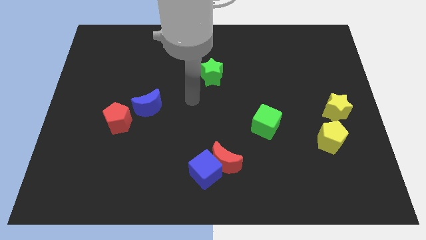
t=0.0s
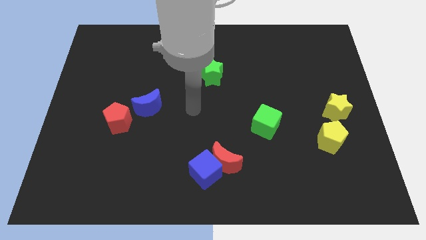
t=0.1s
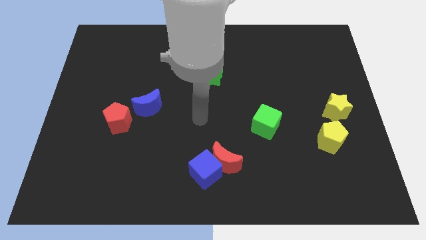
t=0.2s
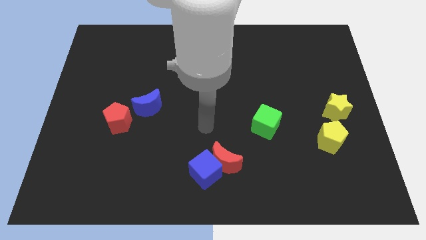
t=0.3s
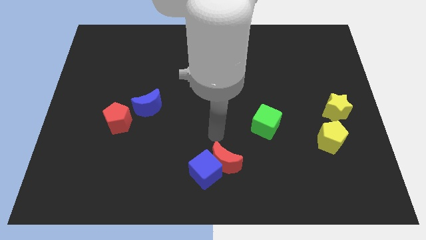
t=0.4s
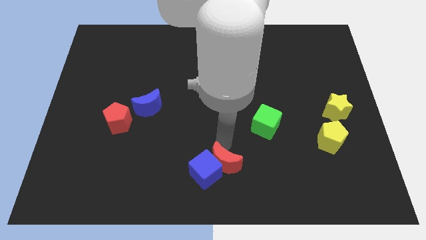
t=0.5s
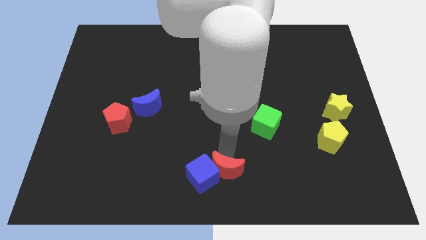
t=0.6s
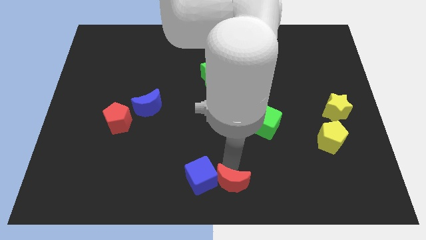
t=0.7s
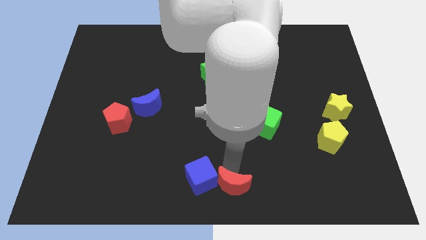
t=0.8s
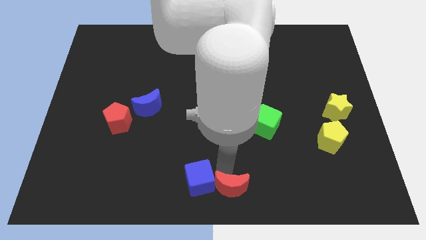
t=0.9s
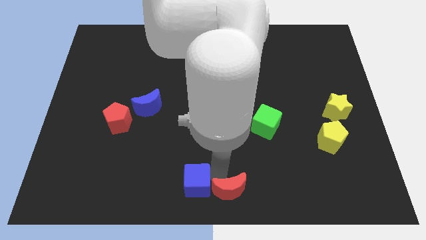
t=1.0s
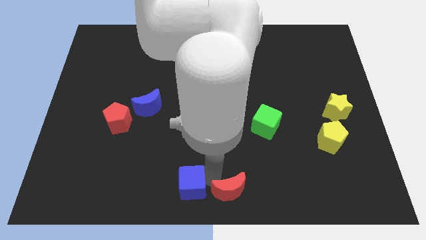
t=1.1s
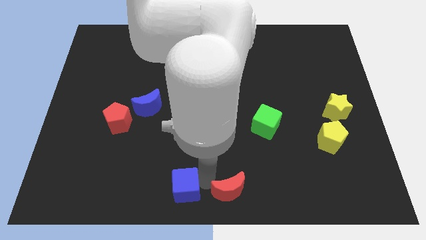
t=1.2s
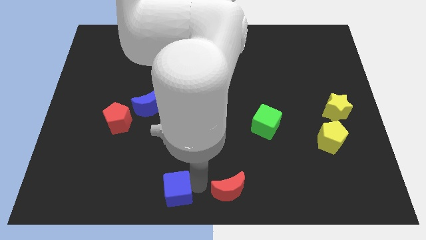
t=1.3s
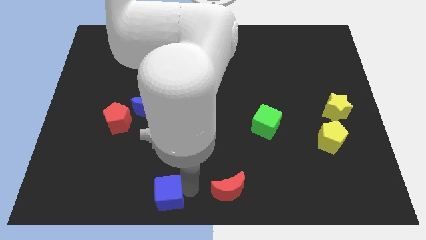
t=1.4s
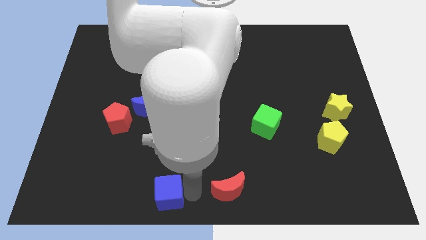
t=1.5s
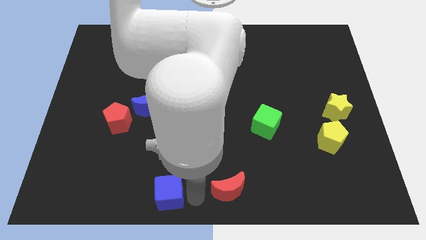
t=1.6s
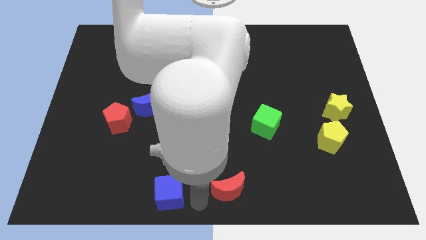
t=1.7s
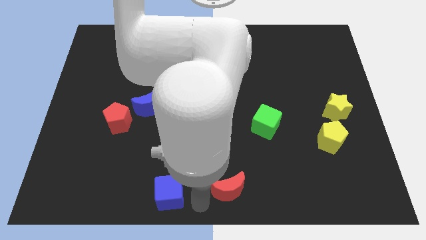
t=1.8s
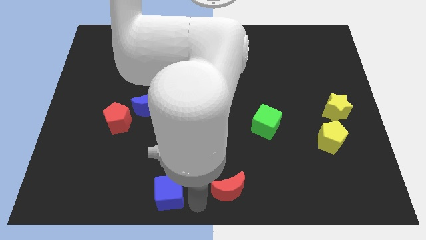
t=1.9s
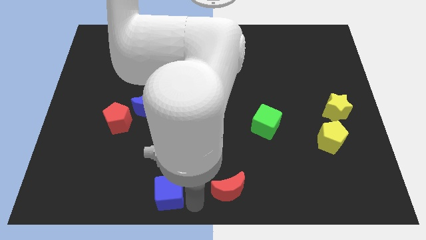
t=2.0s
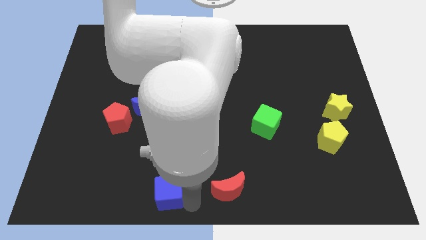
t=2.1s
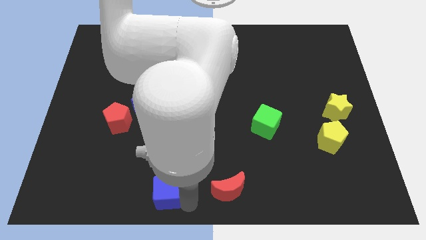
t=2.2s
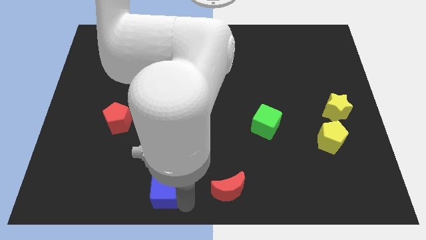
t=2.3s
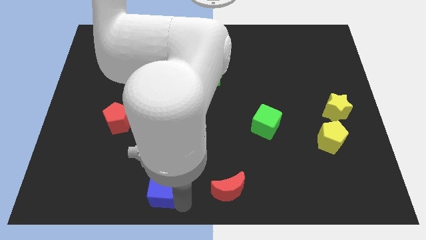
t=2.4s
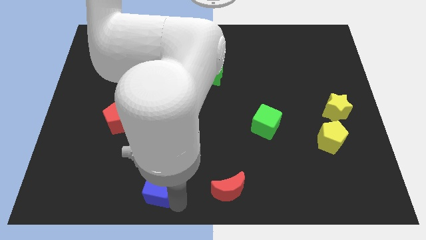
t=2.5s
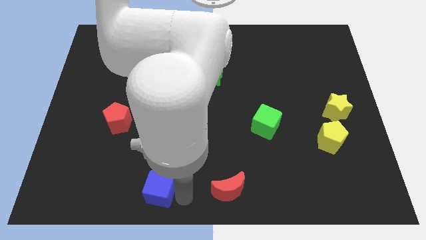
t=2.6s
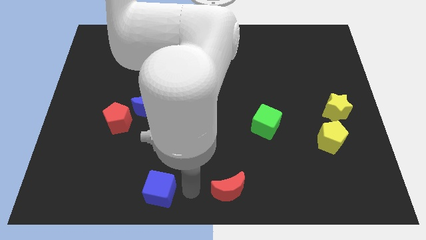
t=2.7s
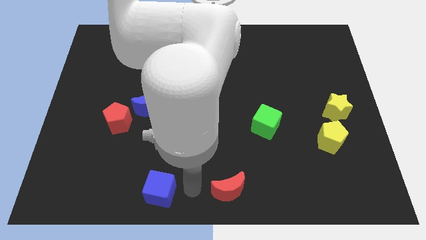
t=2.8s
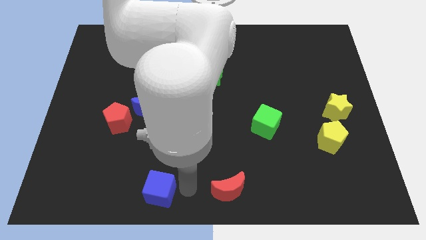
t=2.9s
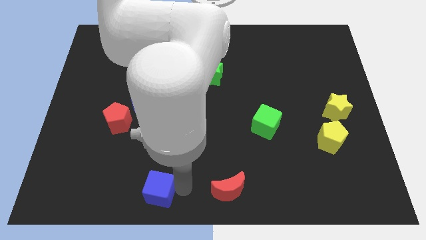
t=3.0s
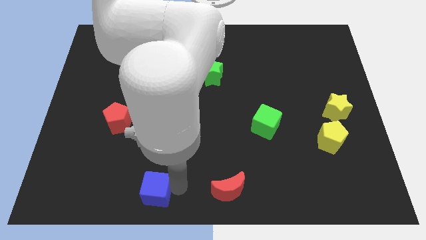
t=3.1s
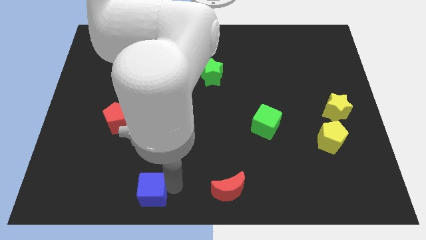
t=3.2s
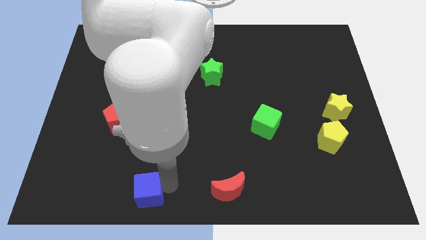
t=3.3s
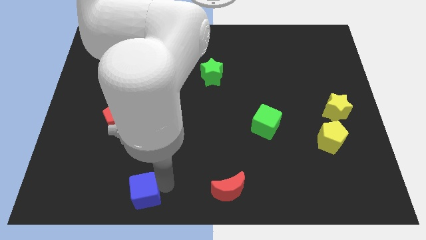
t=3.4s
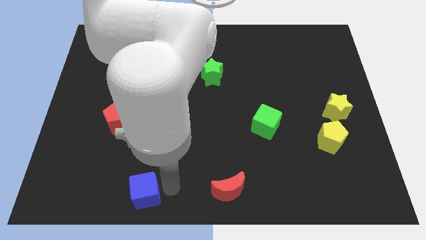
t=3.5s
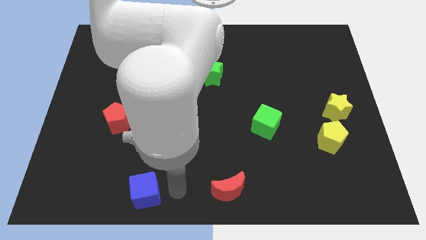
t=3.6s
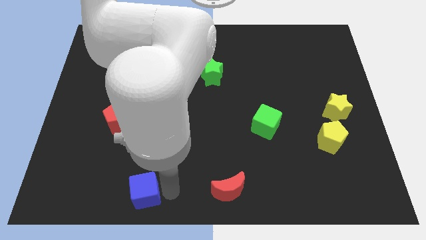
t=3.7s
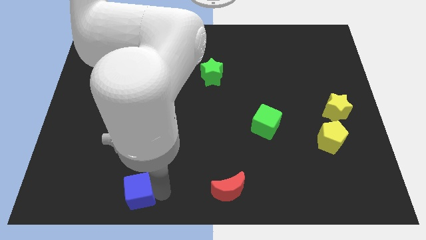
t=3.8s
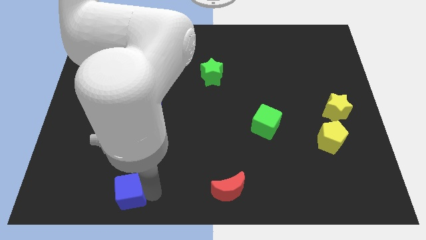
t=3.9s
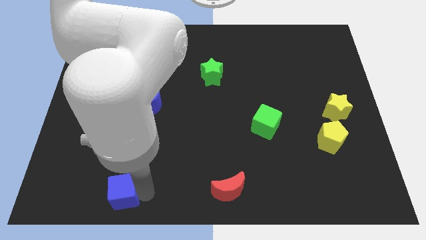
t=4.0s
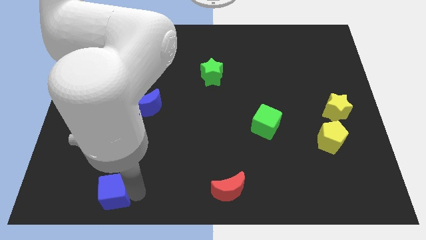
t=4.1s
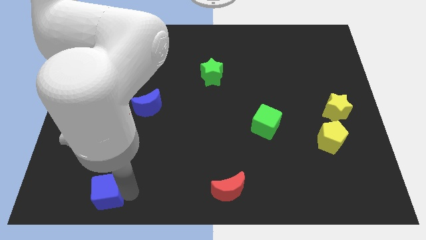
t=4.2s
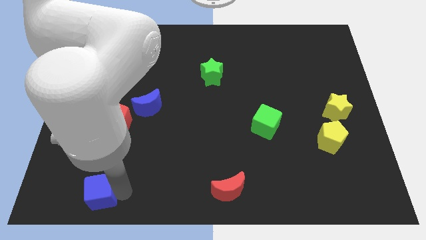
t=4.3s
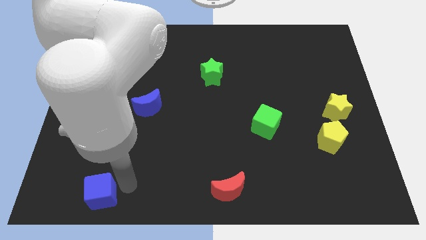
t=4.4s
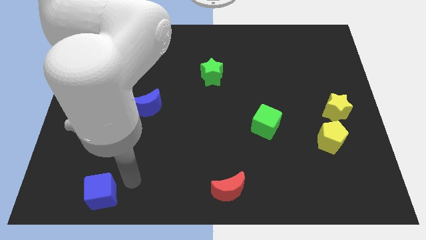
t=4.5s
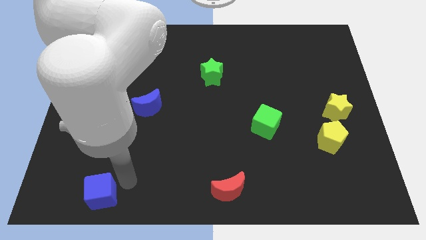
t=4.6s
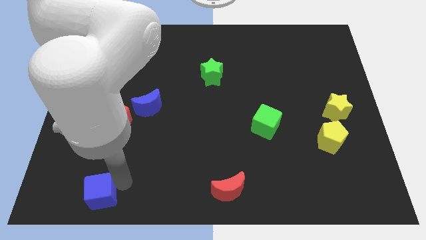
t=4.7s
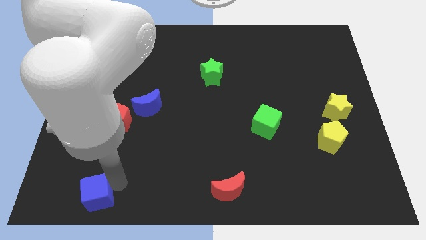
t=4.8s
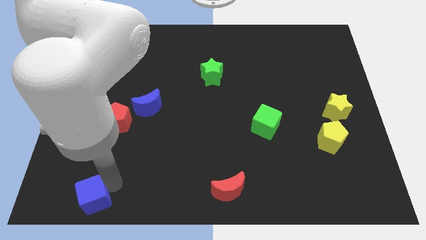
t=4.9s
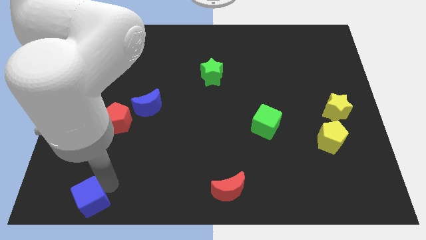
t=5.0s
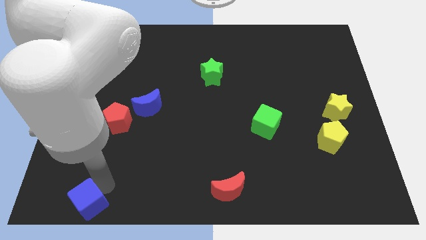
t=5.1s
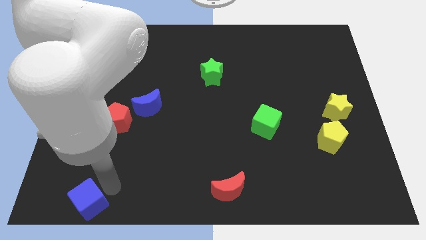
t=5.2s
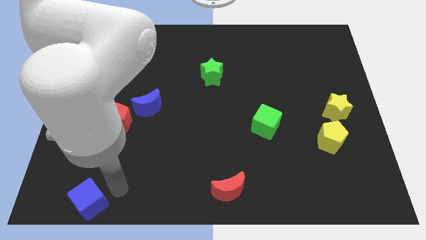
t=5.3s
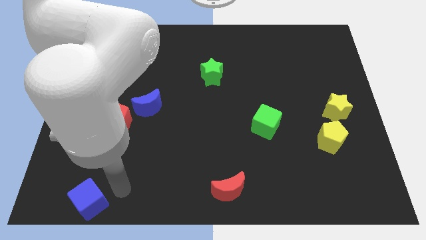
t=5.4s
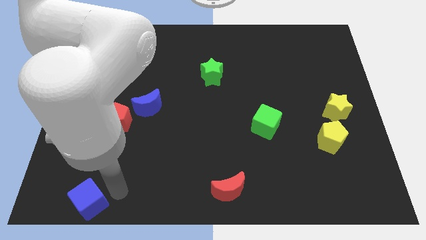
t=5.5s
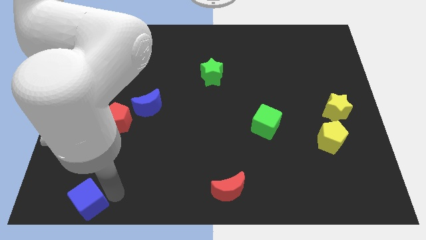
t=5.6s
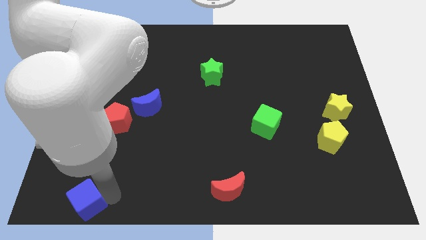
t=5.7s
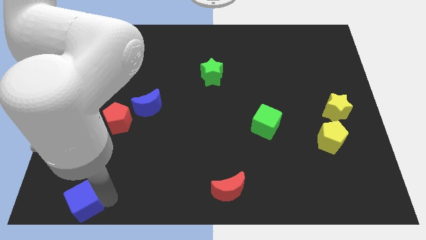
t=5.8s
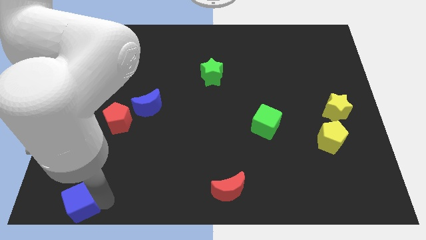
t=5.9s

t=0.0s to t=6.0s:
move the blue cube to the lower left corner

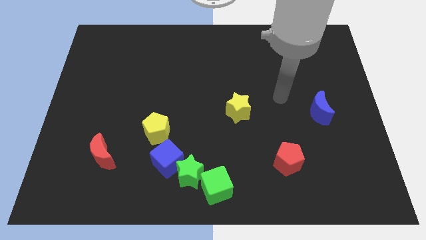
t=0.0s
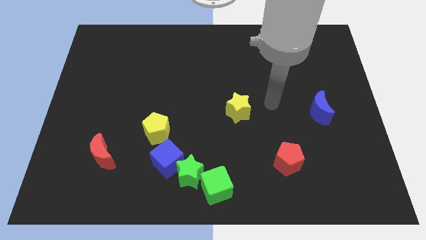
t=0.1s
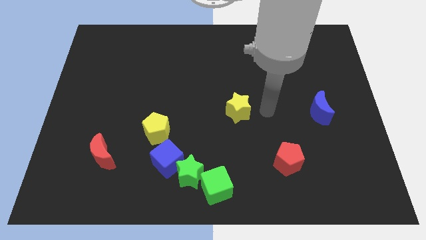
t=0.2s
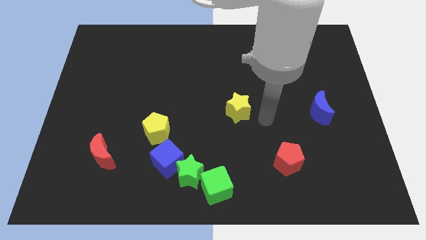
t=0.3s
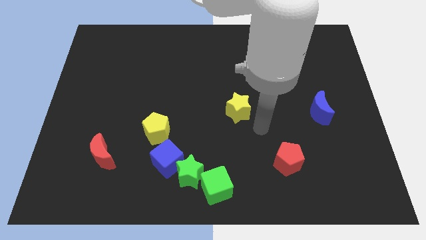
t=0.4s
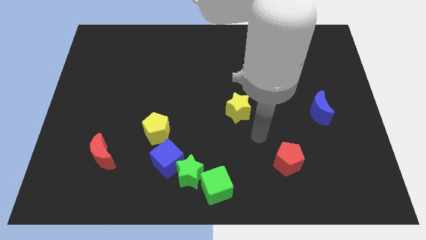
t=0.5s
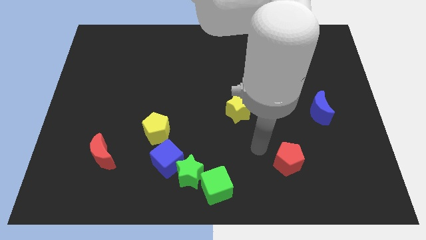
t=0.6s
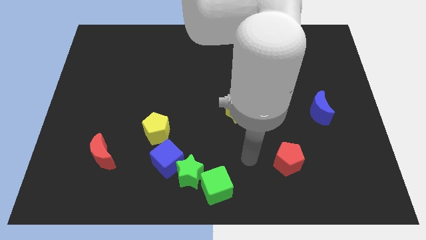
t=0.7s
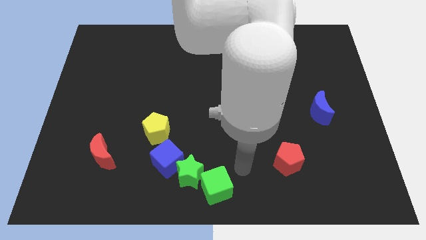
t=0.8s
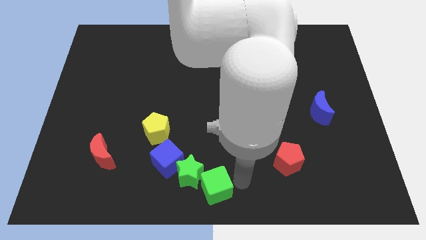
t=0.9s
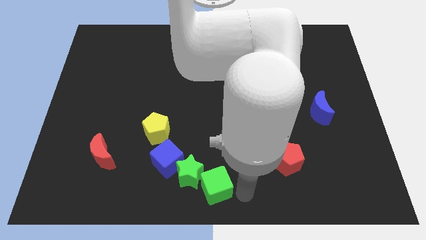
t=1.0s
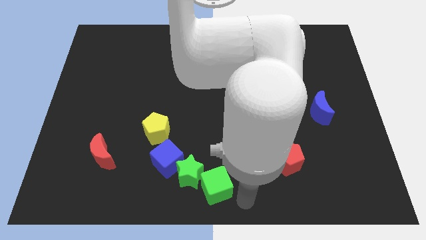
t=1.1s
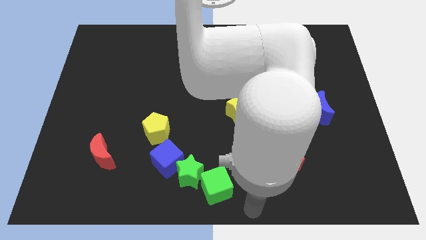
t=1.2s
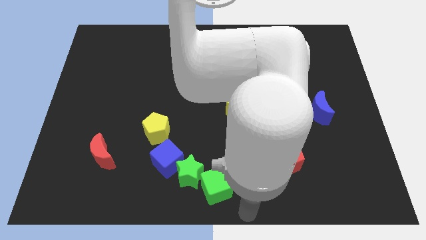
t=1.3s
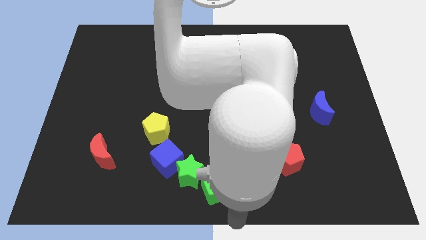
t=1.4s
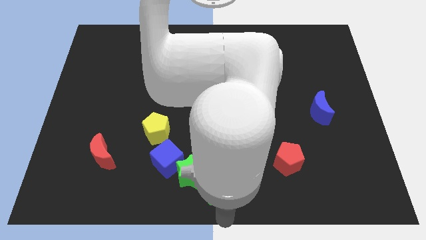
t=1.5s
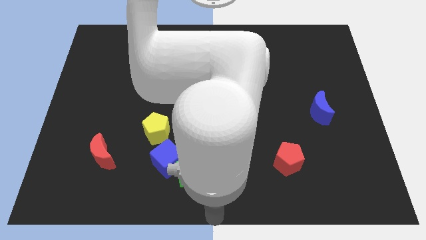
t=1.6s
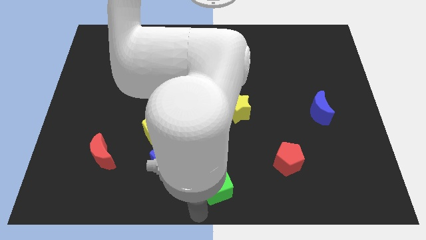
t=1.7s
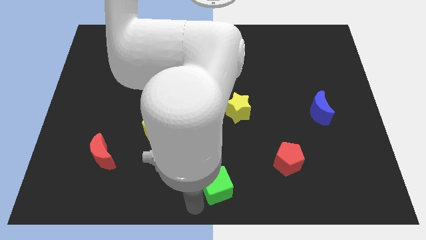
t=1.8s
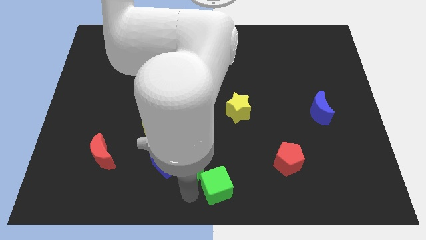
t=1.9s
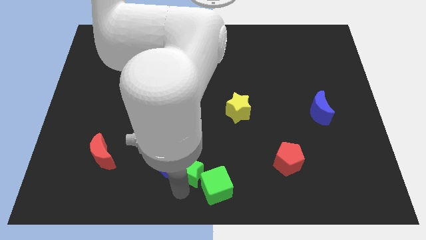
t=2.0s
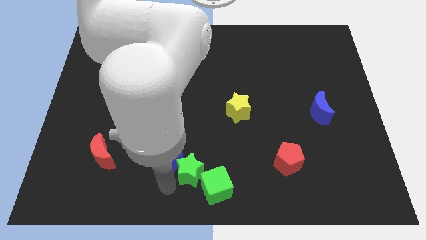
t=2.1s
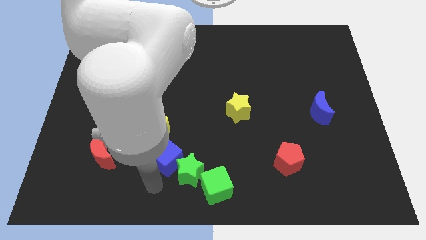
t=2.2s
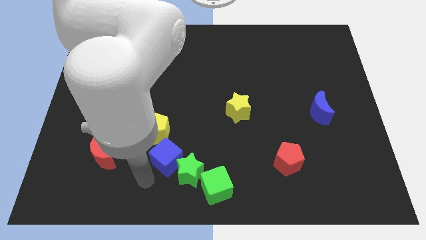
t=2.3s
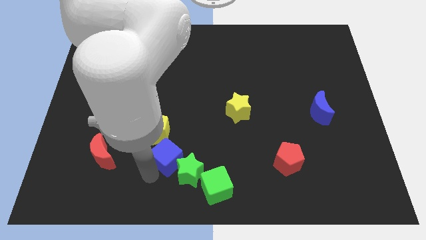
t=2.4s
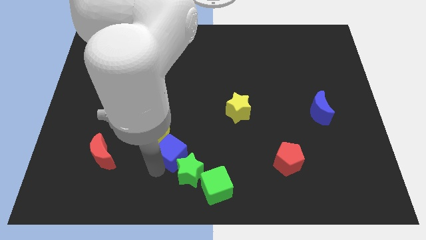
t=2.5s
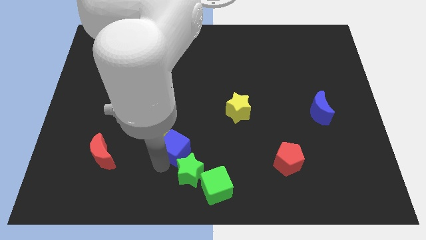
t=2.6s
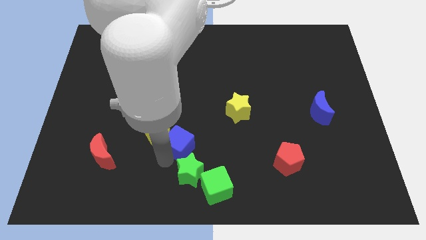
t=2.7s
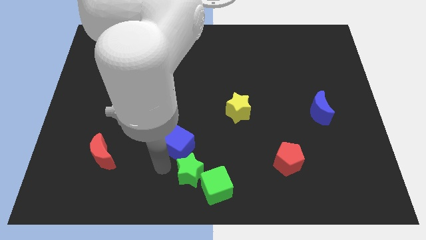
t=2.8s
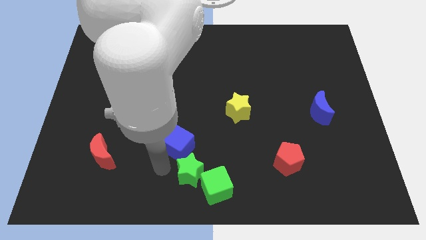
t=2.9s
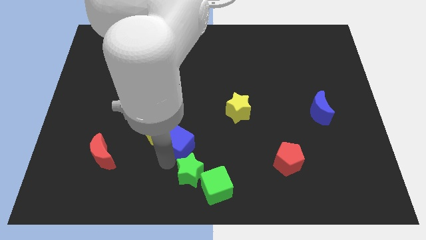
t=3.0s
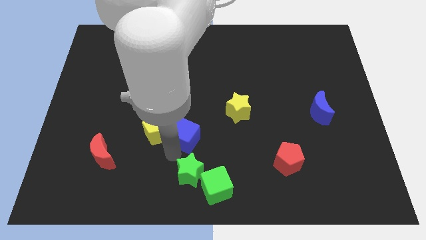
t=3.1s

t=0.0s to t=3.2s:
slide the blue cube to the center of the board
